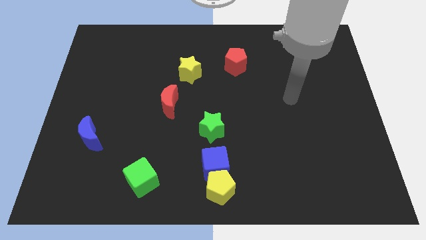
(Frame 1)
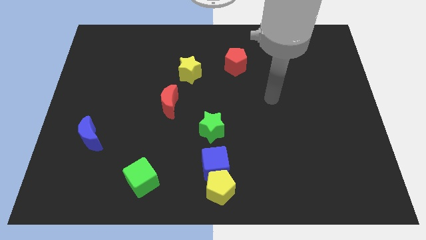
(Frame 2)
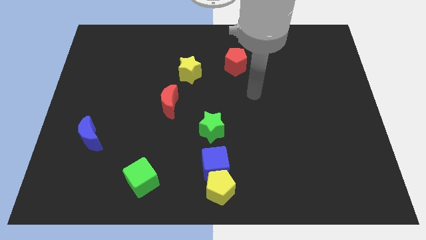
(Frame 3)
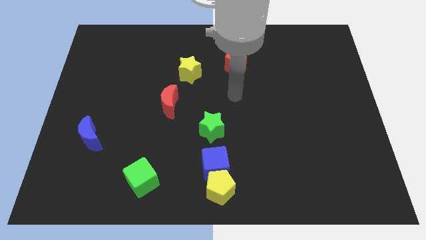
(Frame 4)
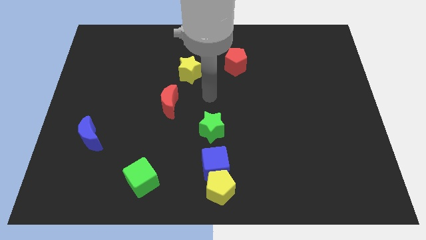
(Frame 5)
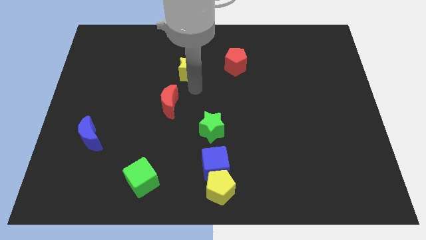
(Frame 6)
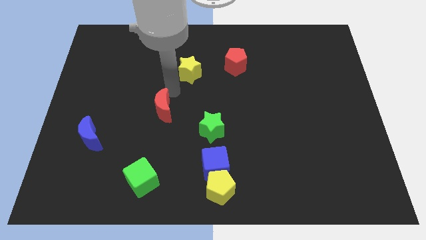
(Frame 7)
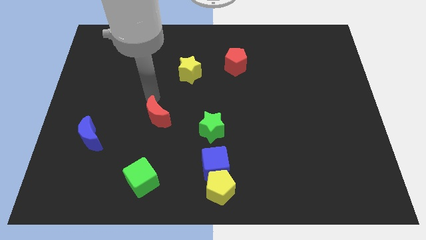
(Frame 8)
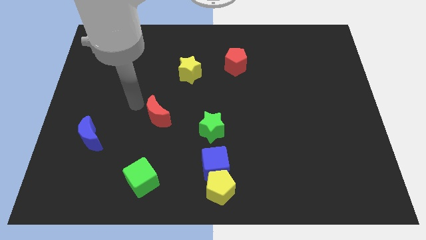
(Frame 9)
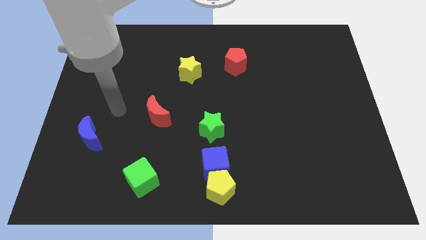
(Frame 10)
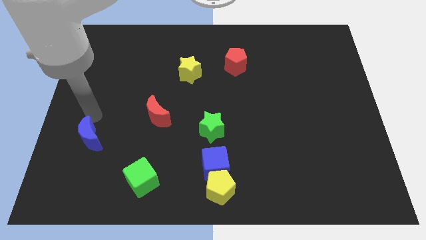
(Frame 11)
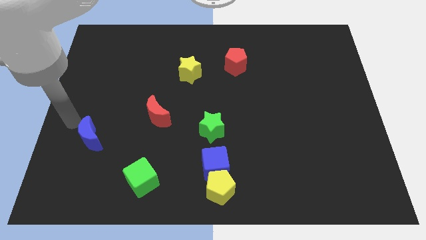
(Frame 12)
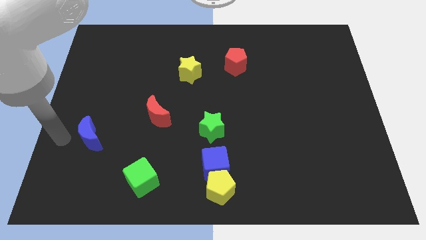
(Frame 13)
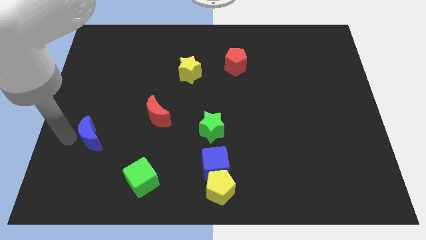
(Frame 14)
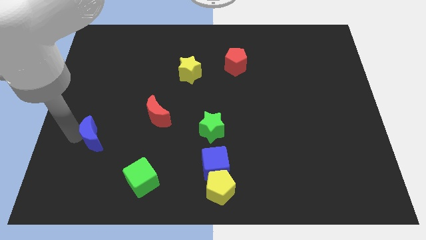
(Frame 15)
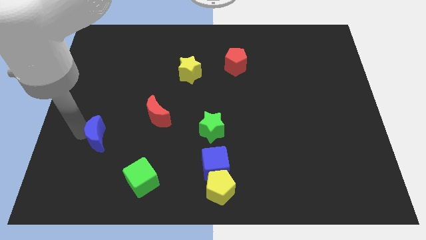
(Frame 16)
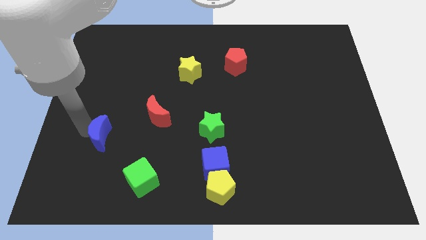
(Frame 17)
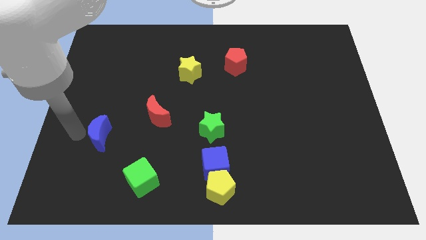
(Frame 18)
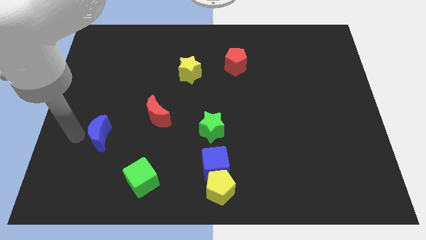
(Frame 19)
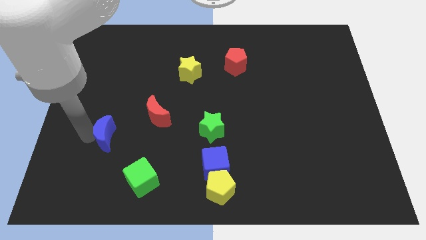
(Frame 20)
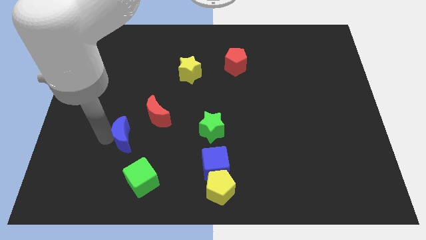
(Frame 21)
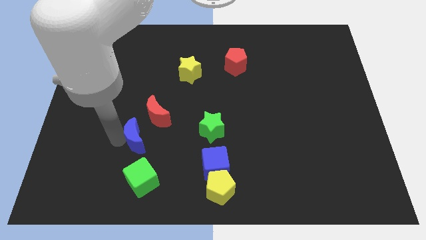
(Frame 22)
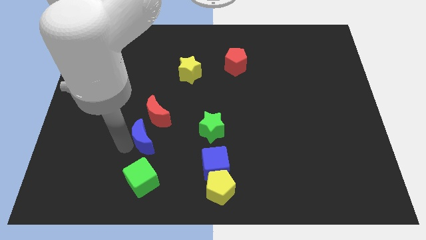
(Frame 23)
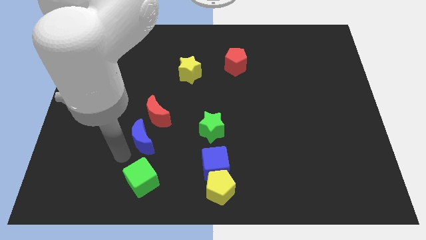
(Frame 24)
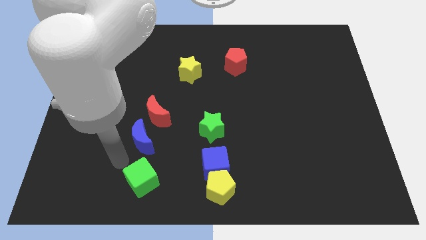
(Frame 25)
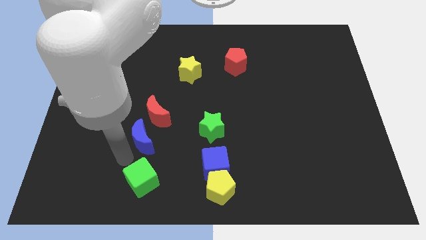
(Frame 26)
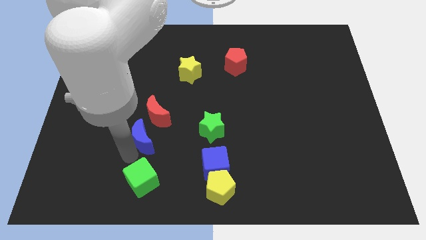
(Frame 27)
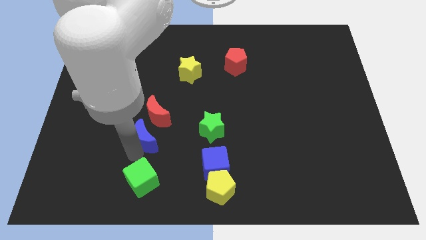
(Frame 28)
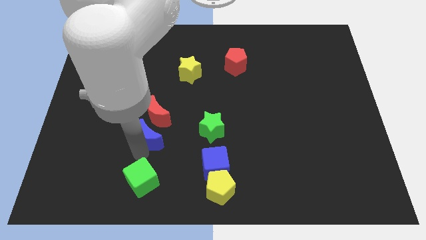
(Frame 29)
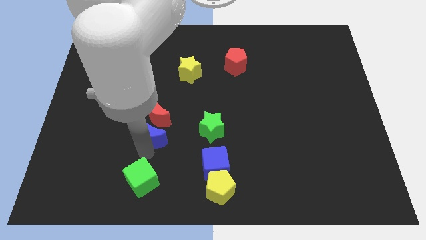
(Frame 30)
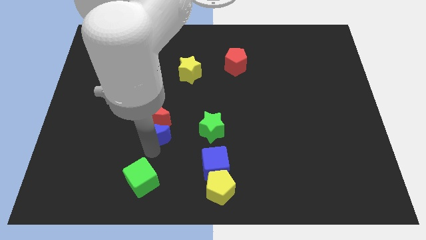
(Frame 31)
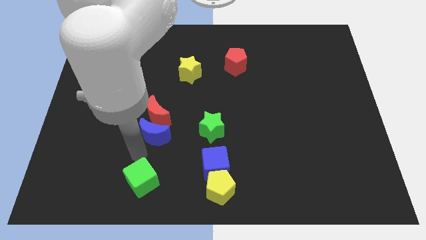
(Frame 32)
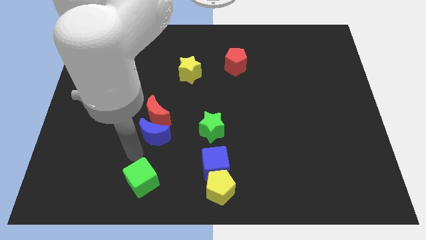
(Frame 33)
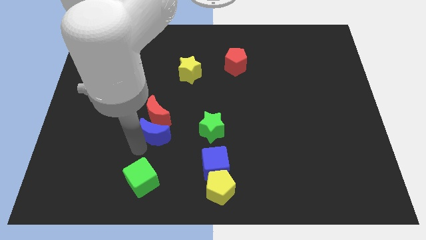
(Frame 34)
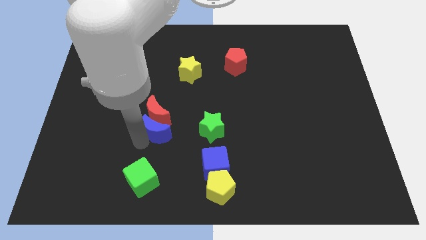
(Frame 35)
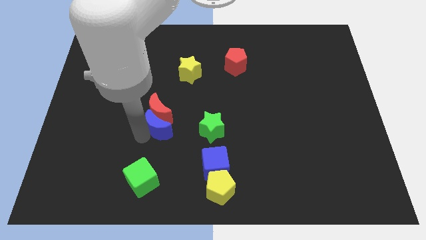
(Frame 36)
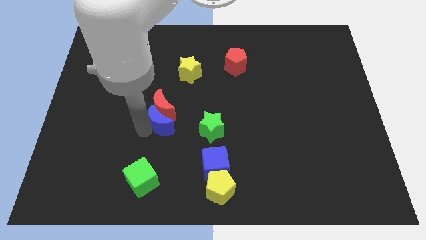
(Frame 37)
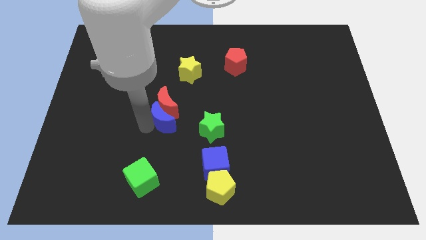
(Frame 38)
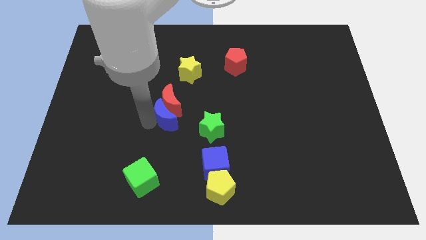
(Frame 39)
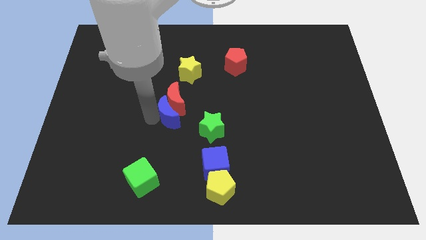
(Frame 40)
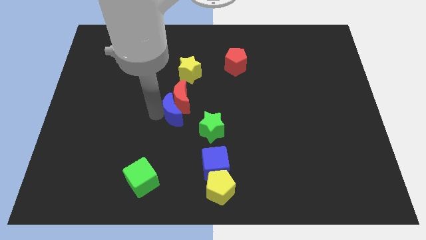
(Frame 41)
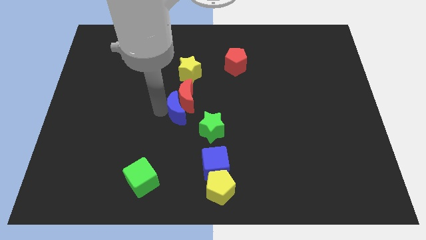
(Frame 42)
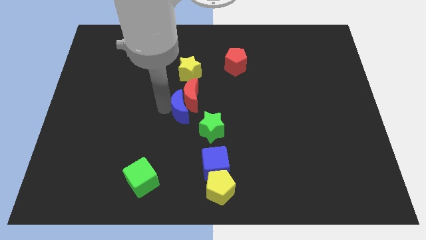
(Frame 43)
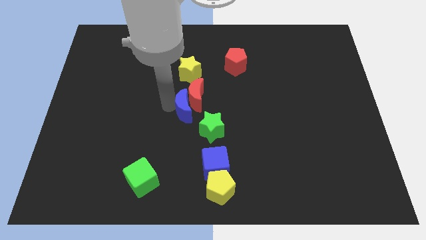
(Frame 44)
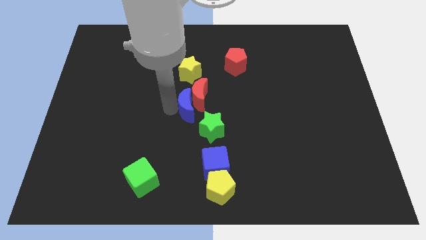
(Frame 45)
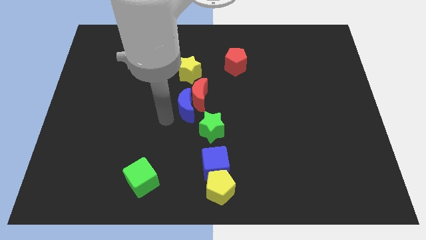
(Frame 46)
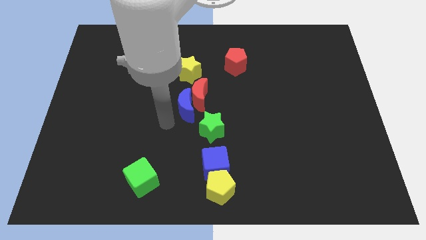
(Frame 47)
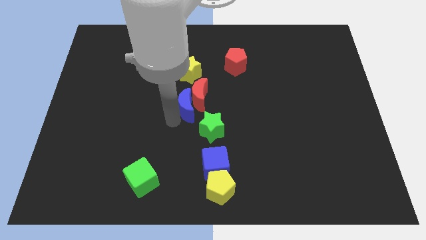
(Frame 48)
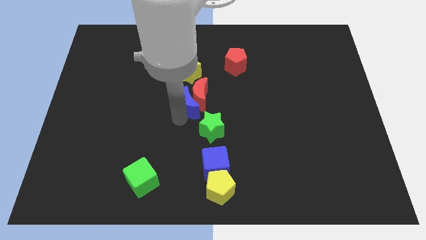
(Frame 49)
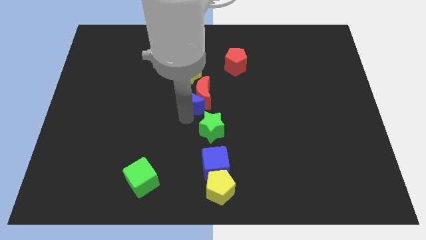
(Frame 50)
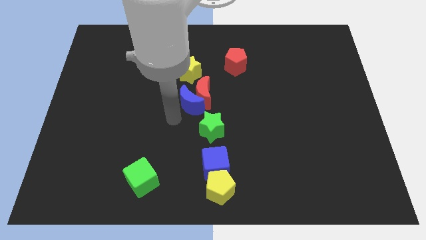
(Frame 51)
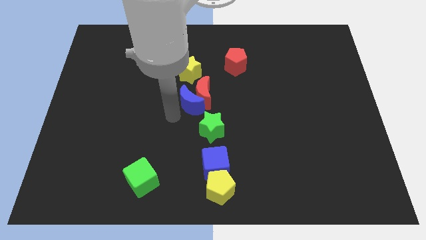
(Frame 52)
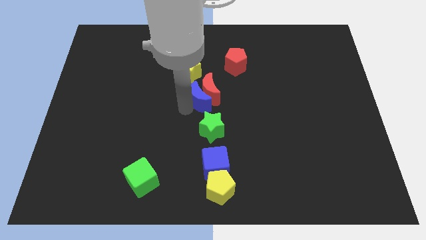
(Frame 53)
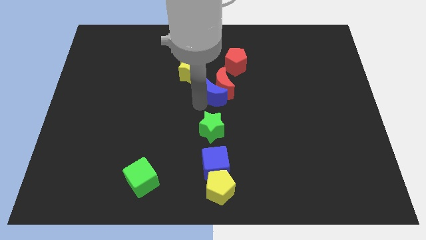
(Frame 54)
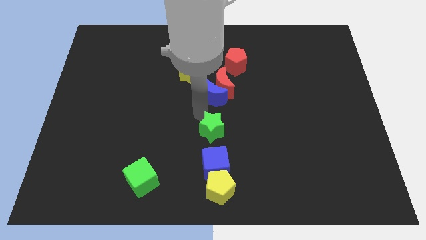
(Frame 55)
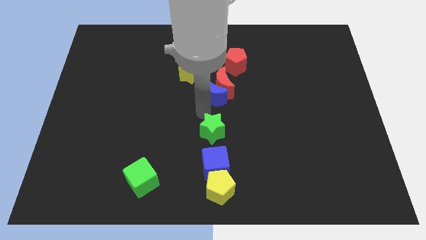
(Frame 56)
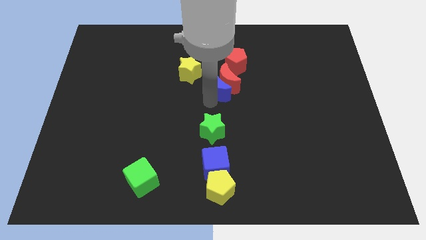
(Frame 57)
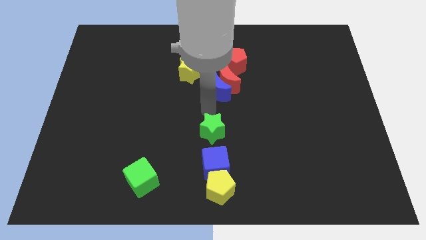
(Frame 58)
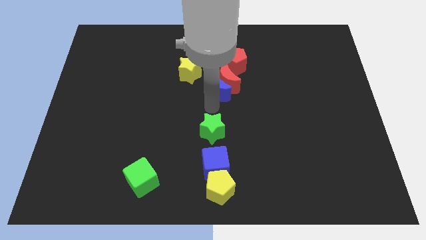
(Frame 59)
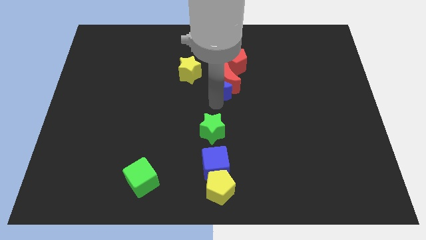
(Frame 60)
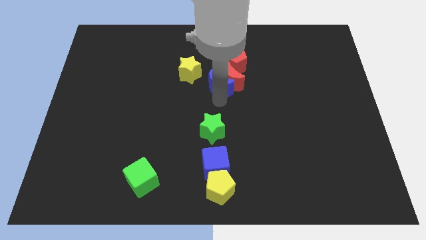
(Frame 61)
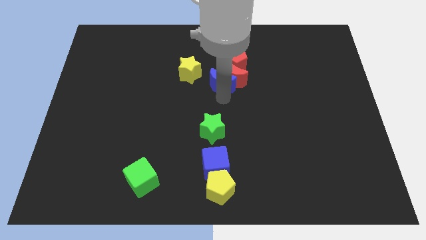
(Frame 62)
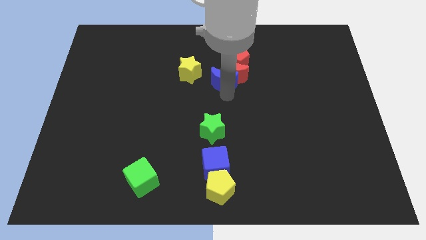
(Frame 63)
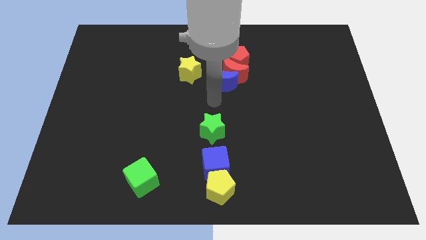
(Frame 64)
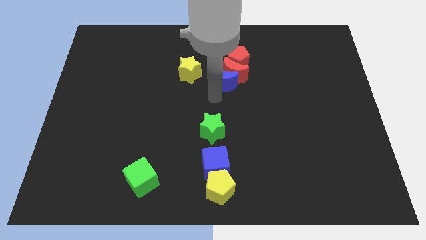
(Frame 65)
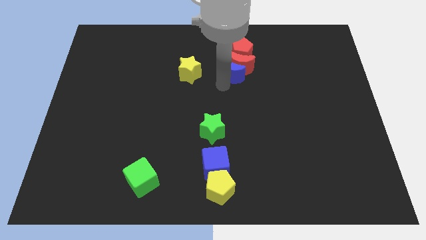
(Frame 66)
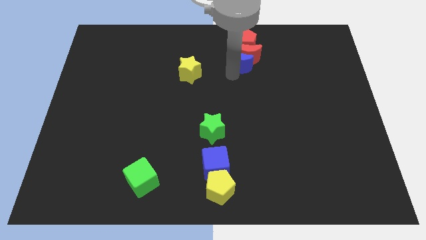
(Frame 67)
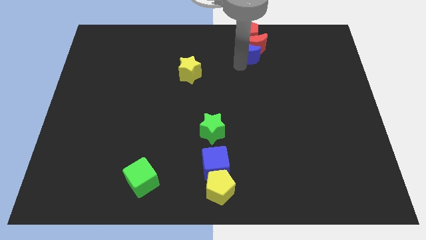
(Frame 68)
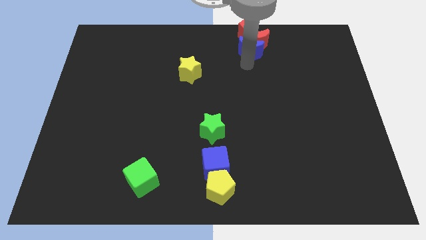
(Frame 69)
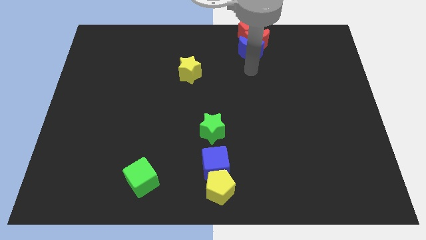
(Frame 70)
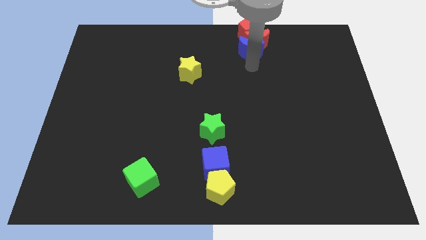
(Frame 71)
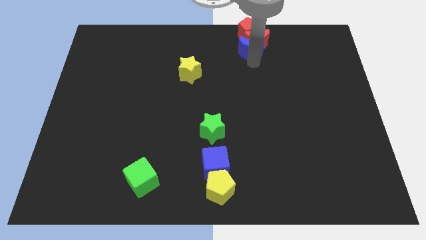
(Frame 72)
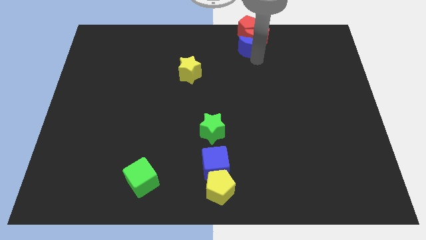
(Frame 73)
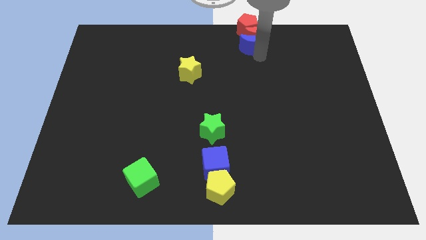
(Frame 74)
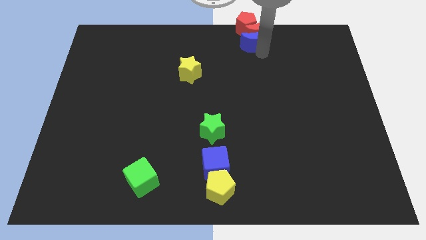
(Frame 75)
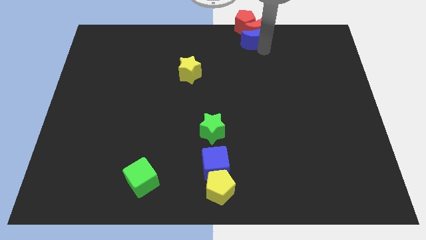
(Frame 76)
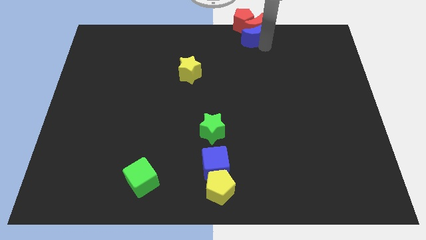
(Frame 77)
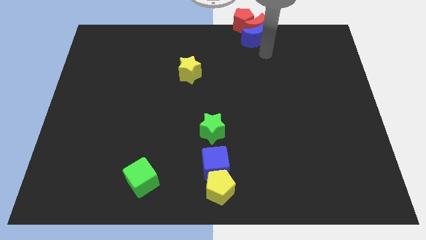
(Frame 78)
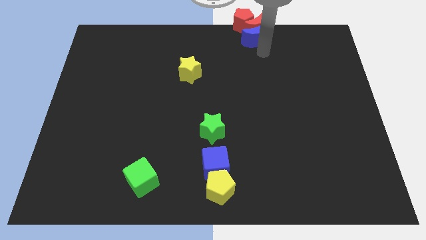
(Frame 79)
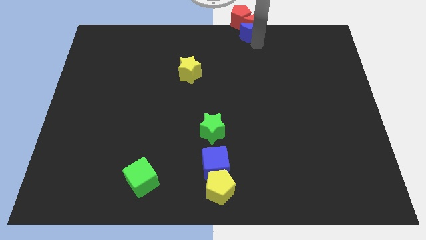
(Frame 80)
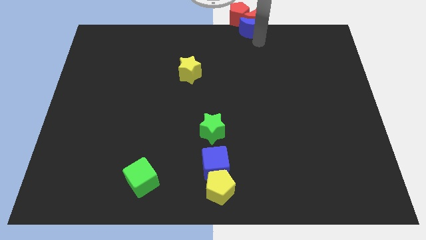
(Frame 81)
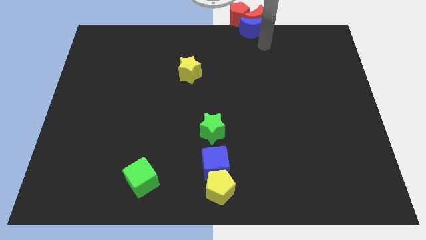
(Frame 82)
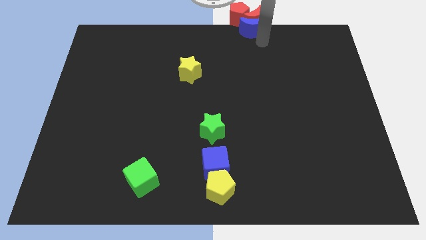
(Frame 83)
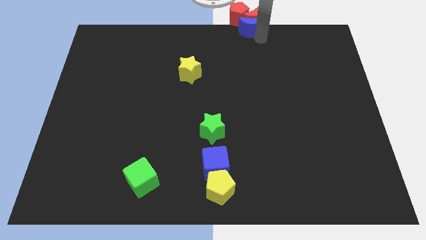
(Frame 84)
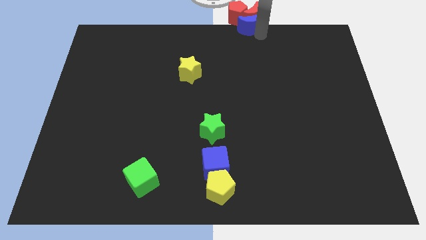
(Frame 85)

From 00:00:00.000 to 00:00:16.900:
move the blue moon towards the red pentagon
